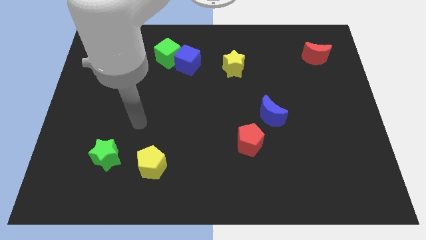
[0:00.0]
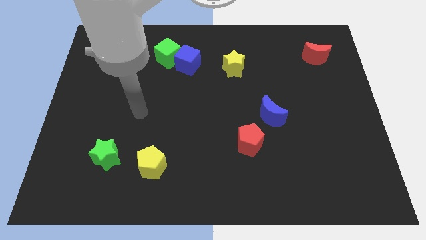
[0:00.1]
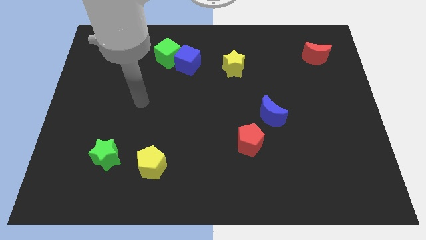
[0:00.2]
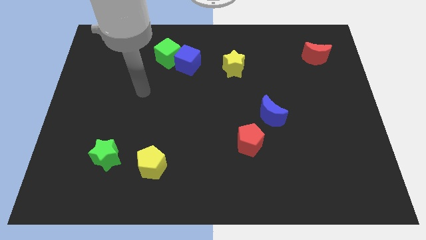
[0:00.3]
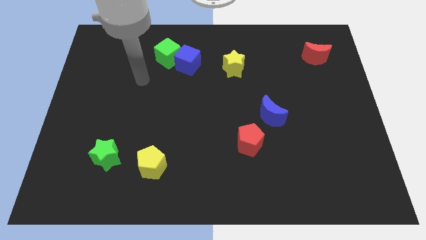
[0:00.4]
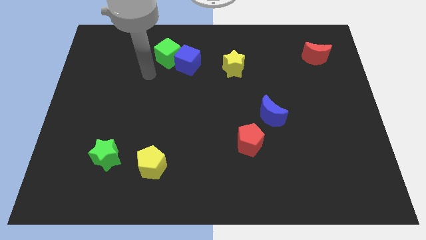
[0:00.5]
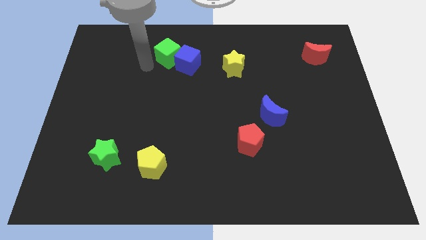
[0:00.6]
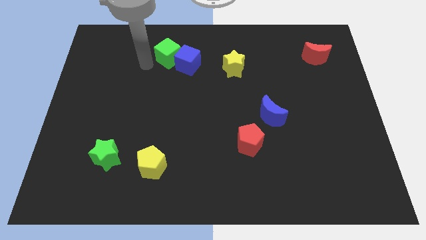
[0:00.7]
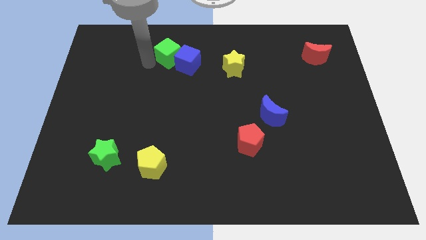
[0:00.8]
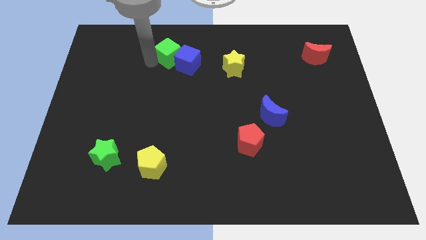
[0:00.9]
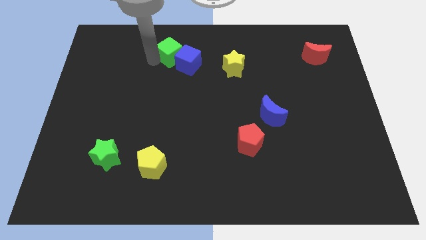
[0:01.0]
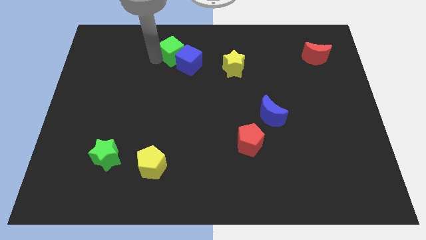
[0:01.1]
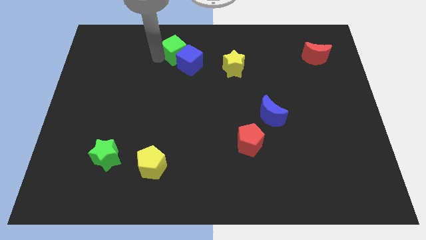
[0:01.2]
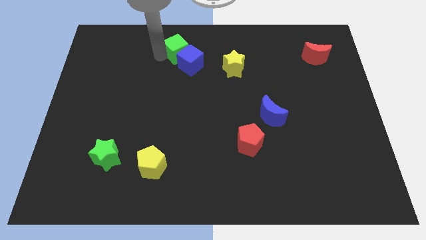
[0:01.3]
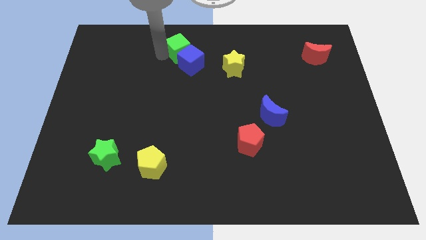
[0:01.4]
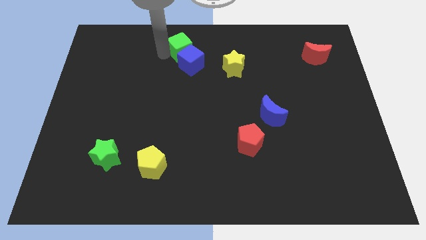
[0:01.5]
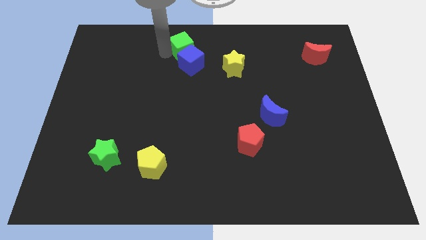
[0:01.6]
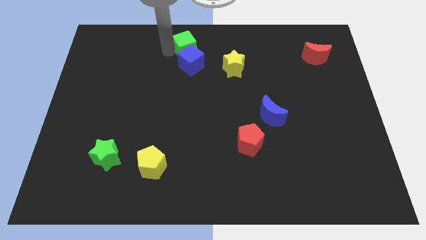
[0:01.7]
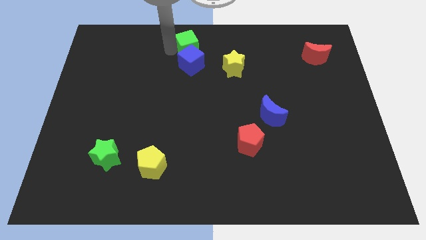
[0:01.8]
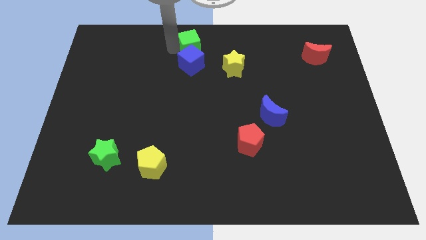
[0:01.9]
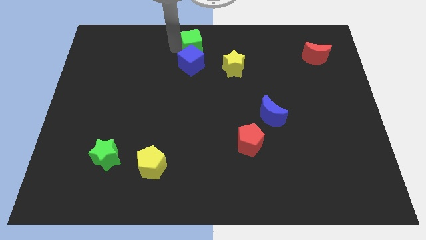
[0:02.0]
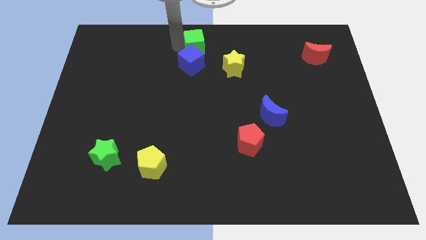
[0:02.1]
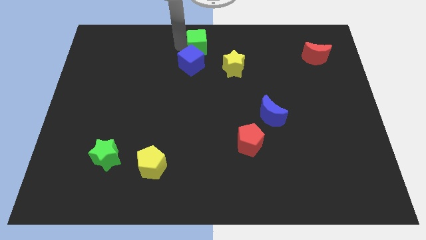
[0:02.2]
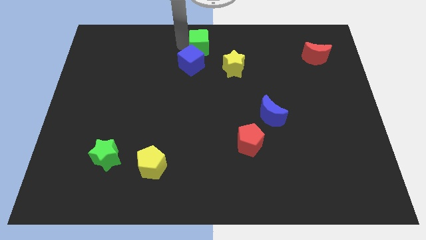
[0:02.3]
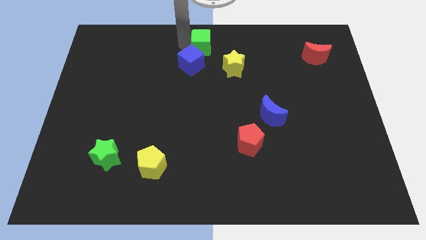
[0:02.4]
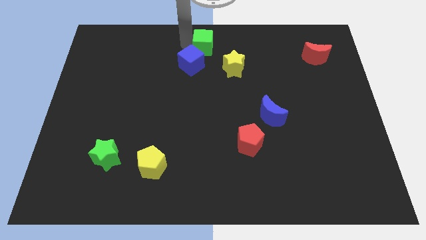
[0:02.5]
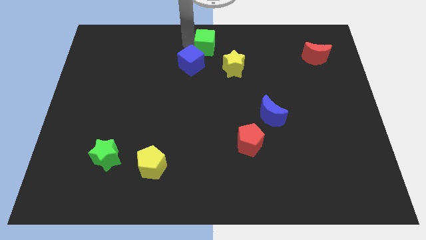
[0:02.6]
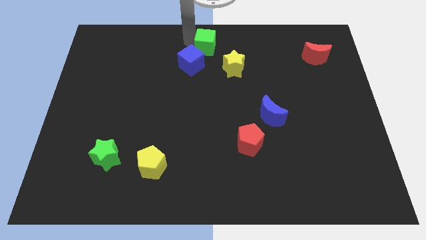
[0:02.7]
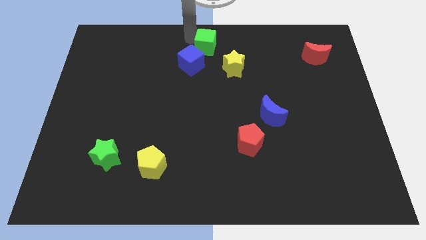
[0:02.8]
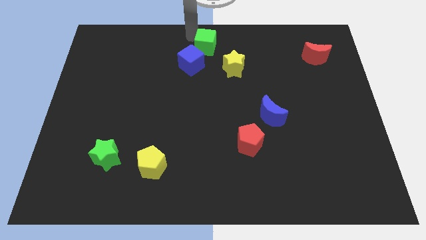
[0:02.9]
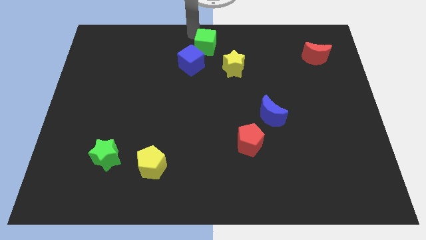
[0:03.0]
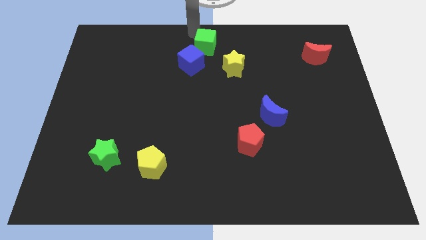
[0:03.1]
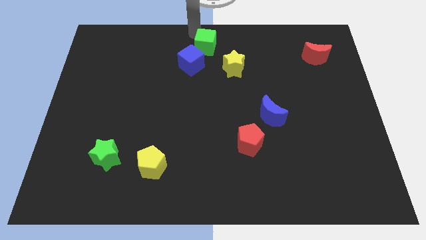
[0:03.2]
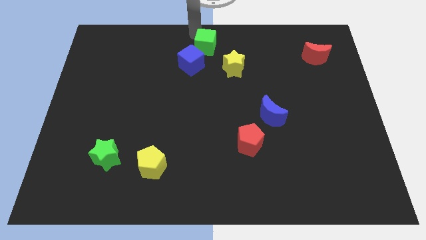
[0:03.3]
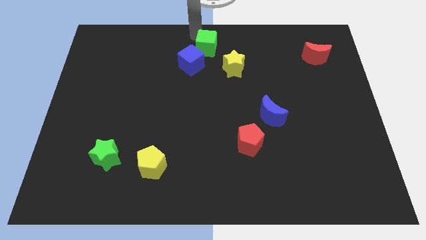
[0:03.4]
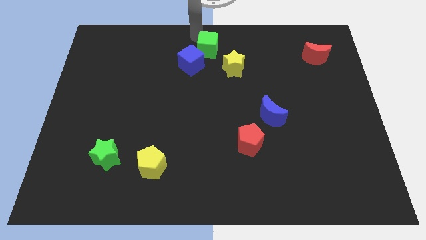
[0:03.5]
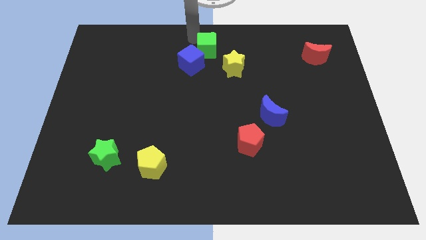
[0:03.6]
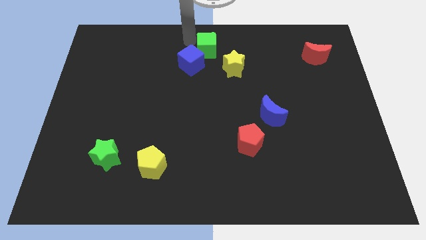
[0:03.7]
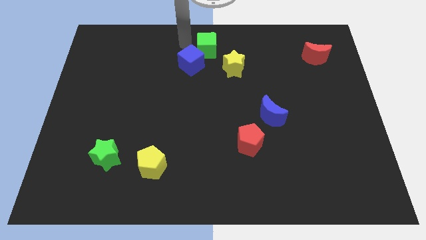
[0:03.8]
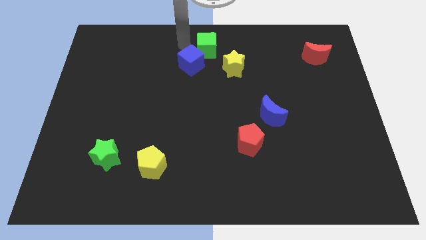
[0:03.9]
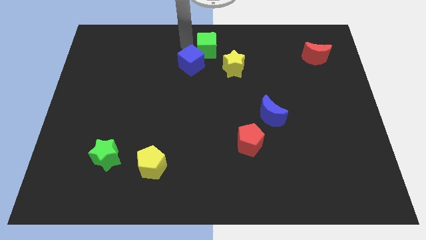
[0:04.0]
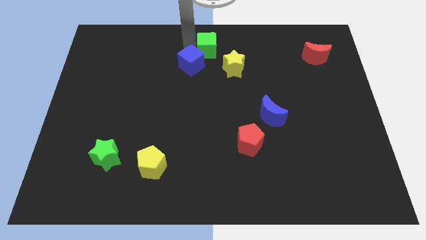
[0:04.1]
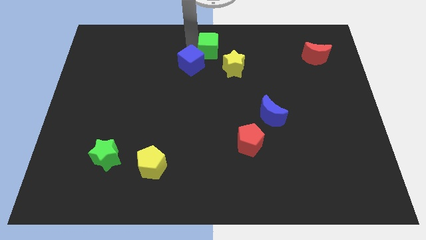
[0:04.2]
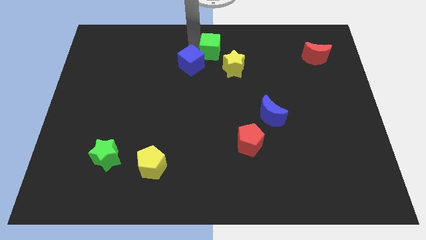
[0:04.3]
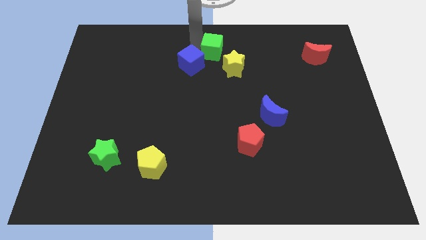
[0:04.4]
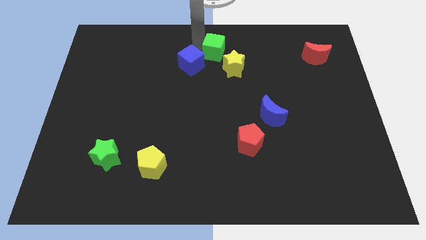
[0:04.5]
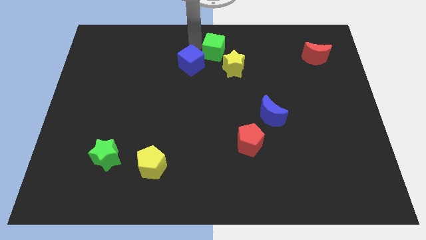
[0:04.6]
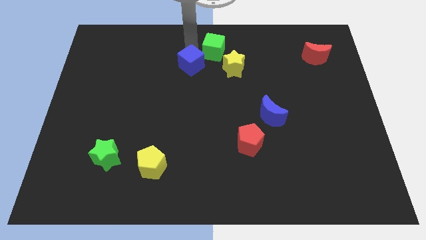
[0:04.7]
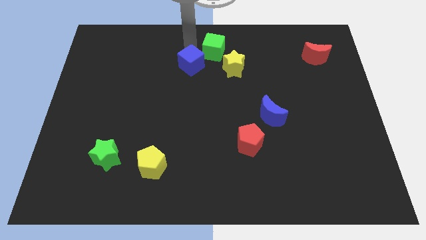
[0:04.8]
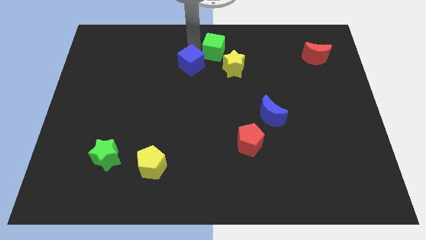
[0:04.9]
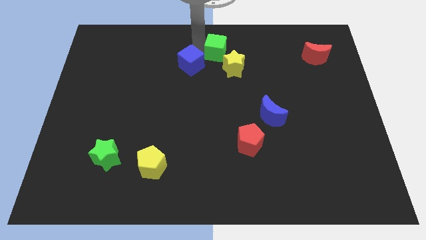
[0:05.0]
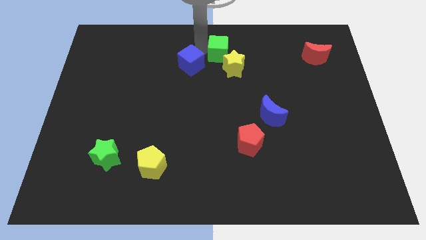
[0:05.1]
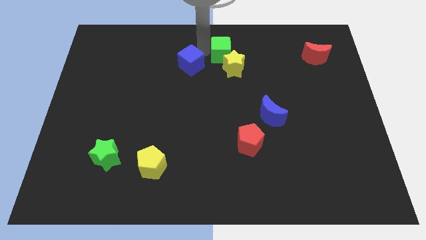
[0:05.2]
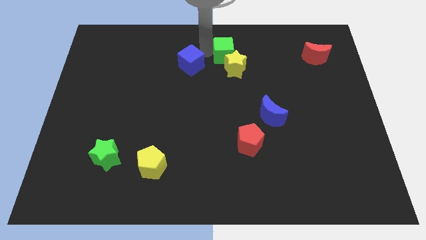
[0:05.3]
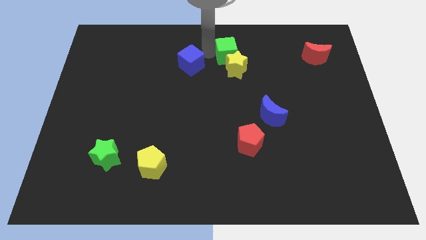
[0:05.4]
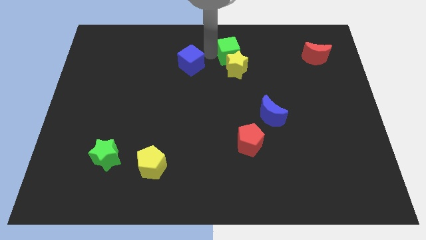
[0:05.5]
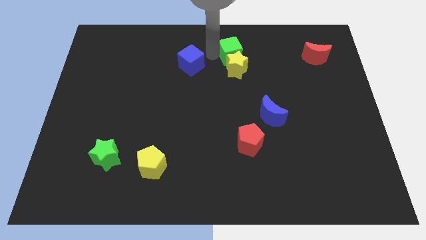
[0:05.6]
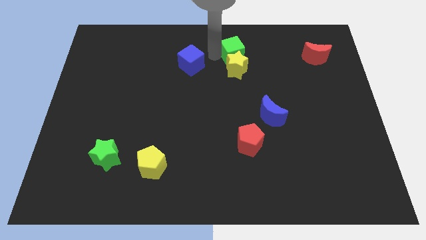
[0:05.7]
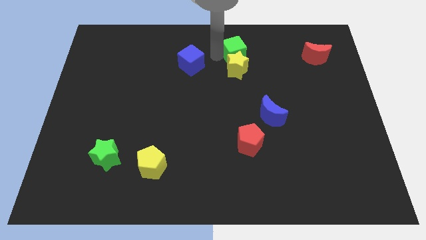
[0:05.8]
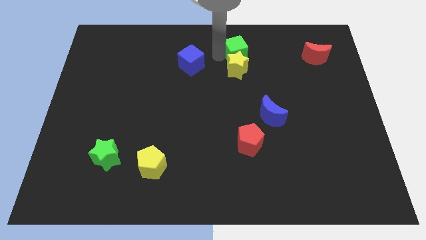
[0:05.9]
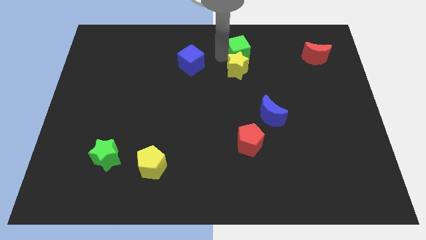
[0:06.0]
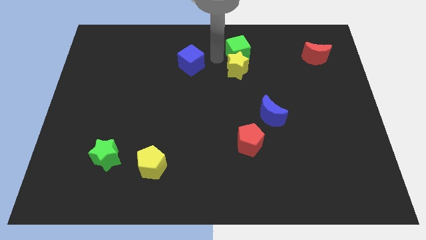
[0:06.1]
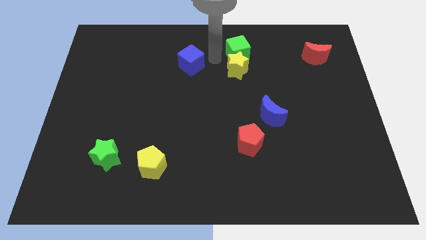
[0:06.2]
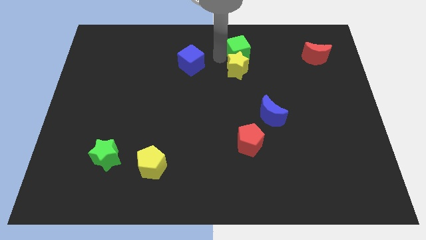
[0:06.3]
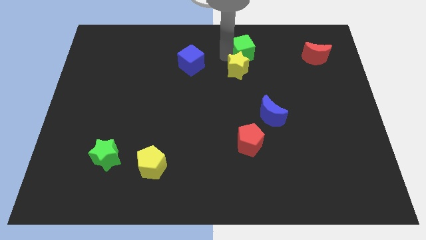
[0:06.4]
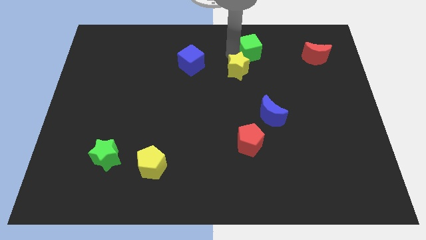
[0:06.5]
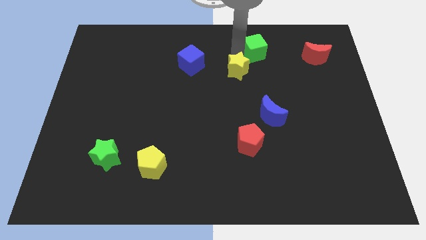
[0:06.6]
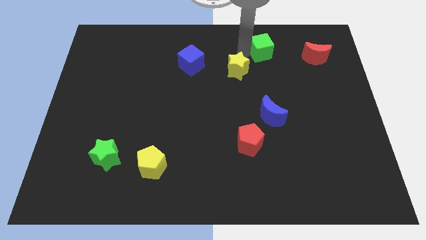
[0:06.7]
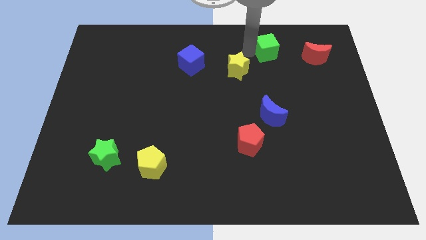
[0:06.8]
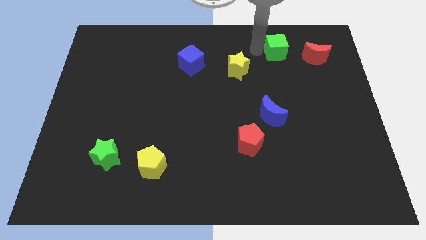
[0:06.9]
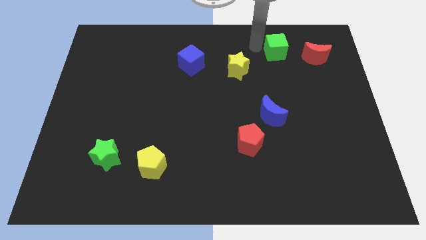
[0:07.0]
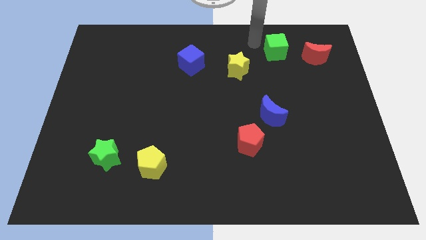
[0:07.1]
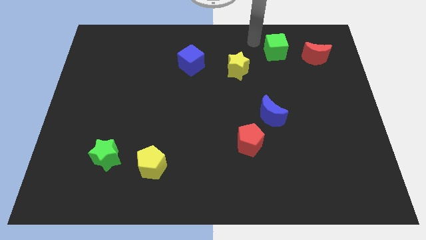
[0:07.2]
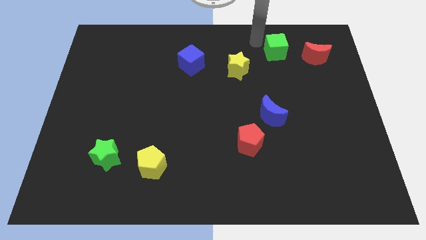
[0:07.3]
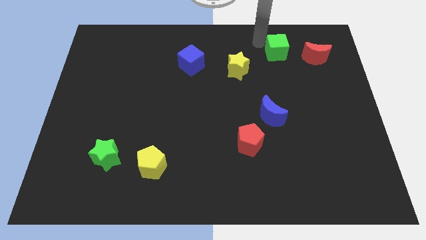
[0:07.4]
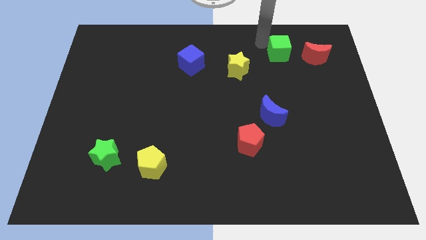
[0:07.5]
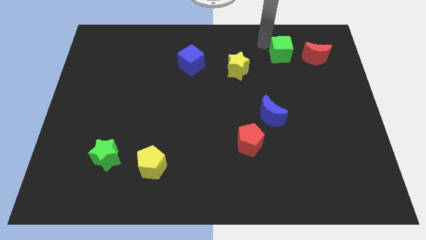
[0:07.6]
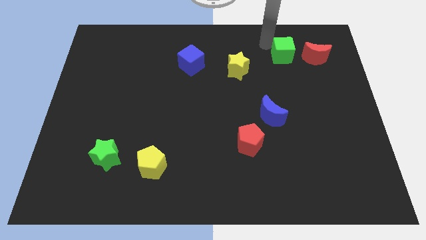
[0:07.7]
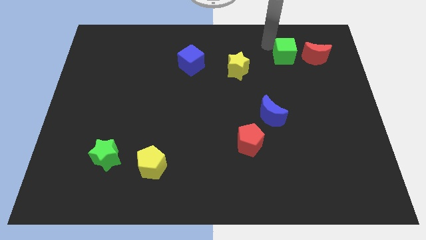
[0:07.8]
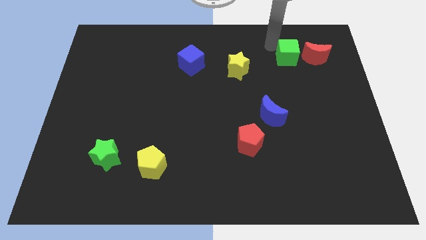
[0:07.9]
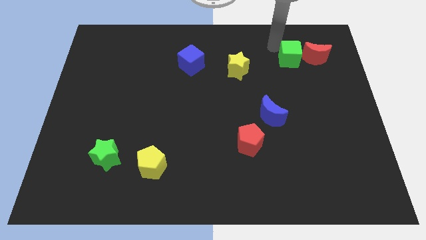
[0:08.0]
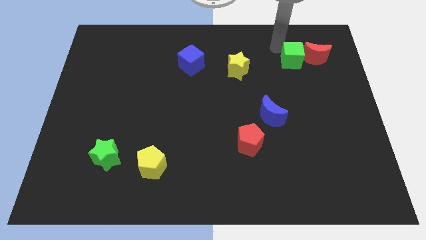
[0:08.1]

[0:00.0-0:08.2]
push the green cube next to the red moon
